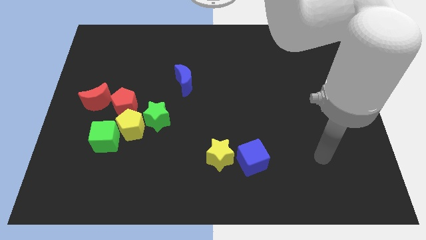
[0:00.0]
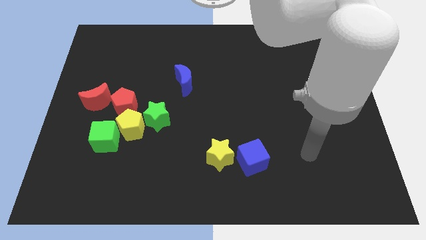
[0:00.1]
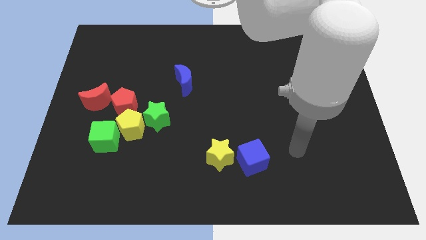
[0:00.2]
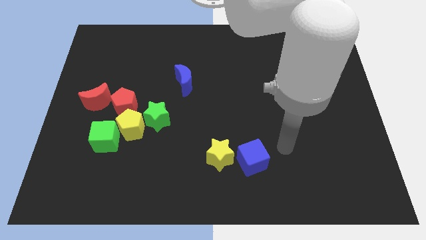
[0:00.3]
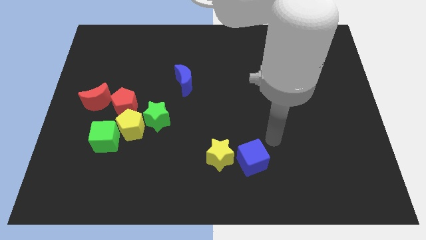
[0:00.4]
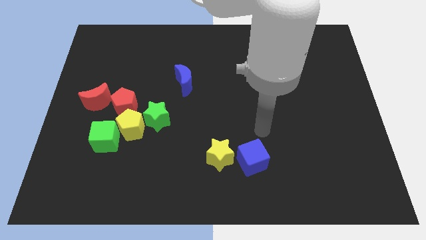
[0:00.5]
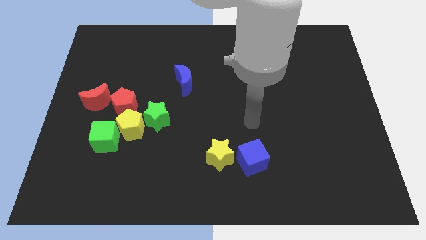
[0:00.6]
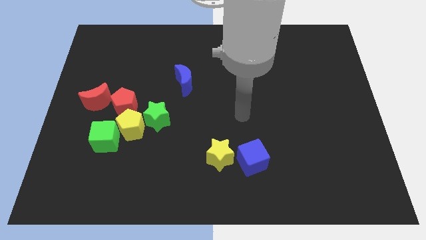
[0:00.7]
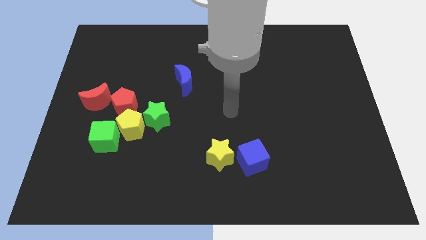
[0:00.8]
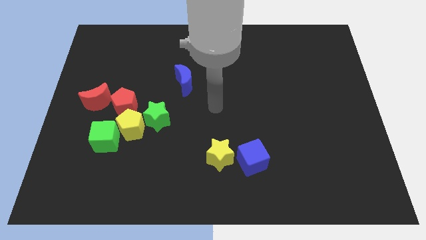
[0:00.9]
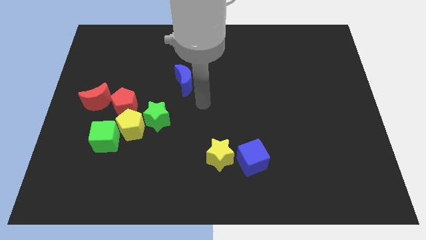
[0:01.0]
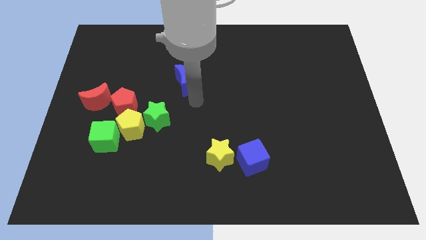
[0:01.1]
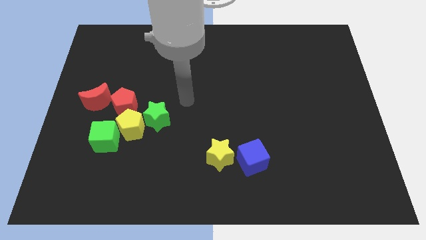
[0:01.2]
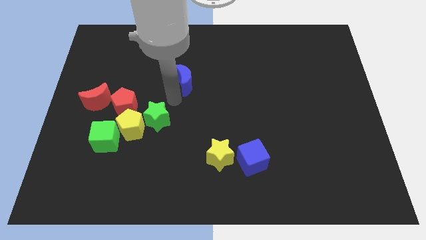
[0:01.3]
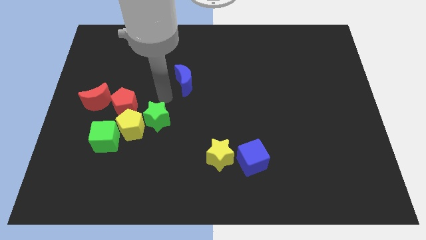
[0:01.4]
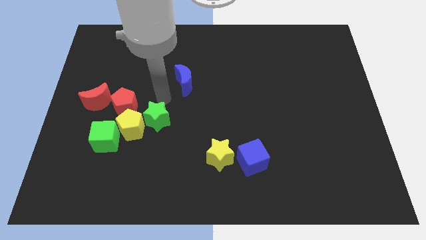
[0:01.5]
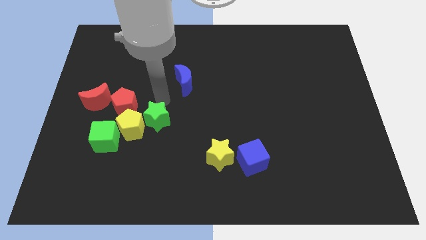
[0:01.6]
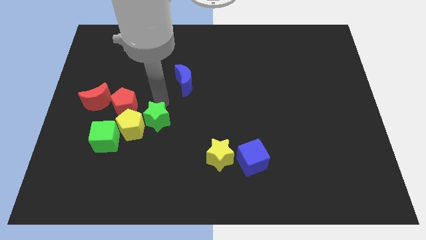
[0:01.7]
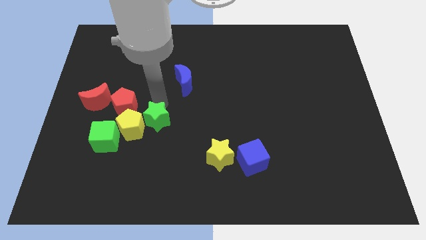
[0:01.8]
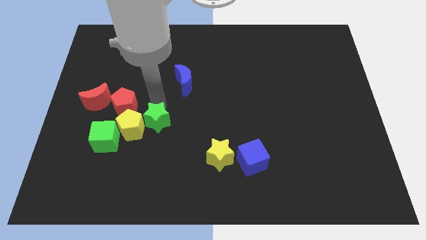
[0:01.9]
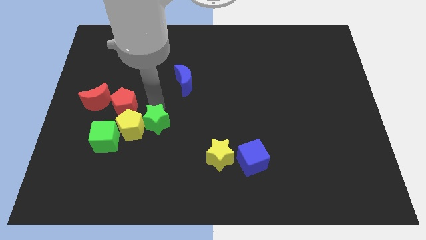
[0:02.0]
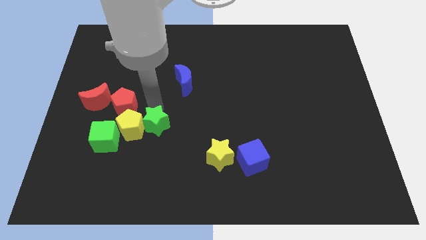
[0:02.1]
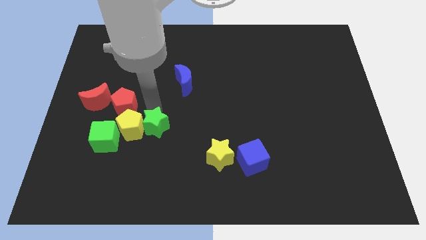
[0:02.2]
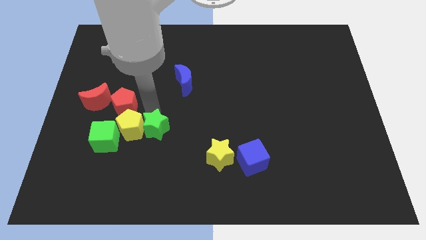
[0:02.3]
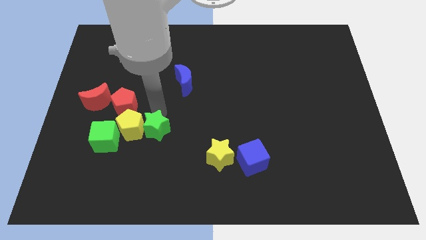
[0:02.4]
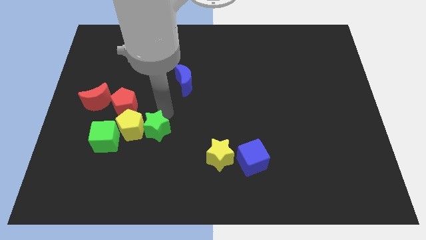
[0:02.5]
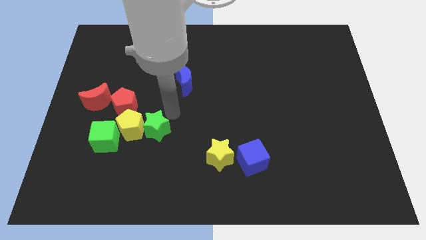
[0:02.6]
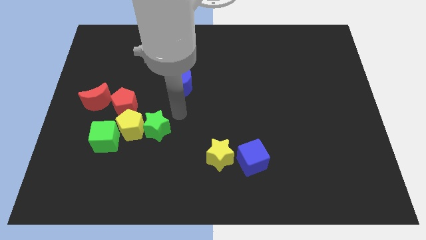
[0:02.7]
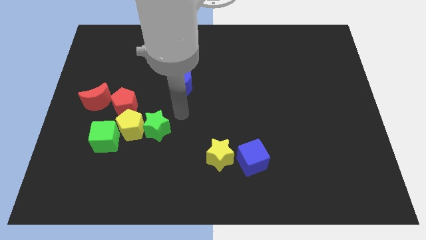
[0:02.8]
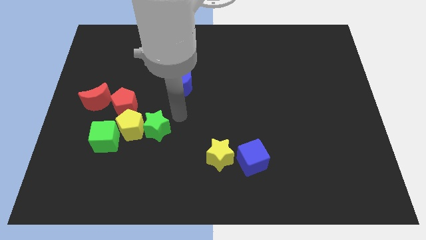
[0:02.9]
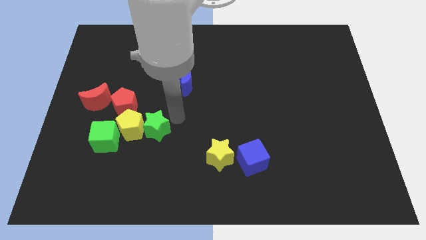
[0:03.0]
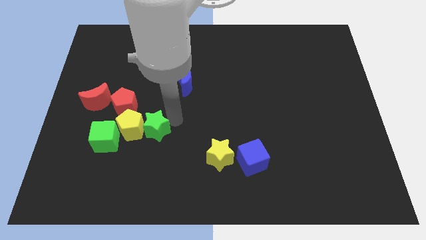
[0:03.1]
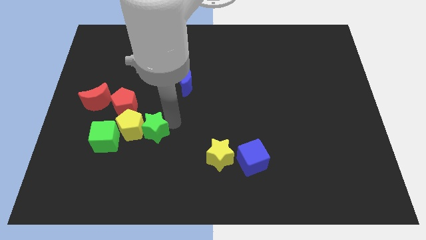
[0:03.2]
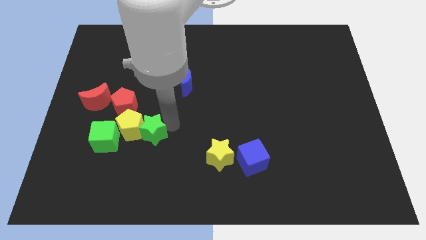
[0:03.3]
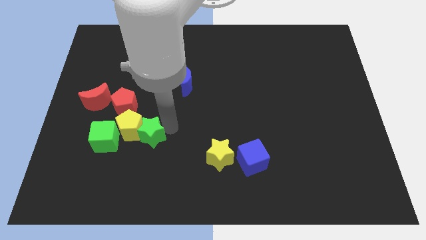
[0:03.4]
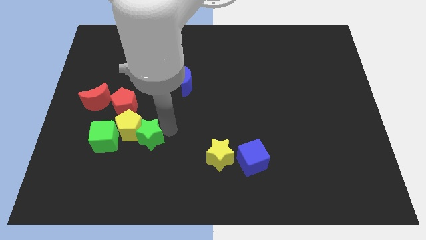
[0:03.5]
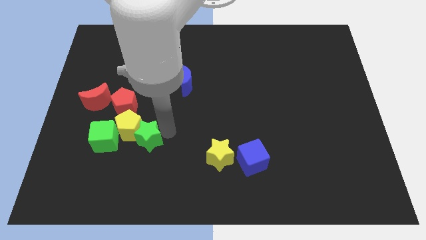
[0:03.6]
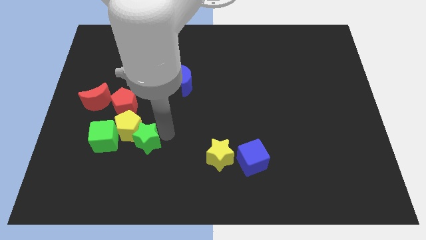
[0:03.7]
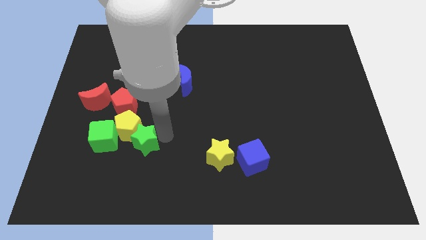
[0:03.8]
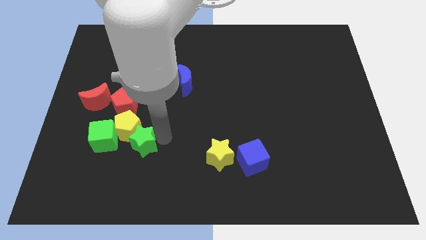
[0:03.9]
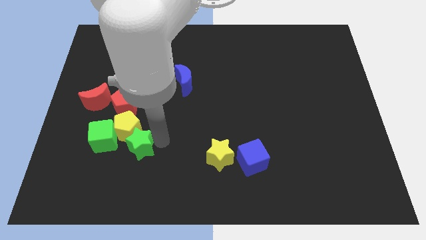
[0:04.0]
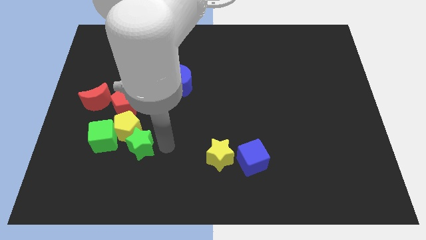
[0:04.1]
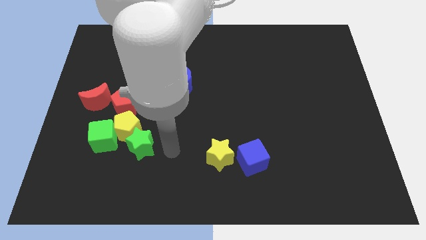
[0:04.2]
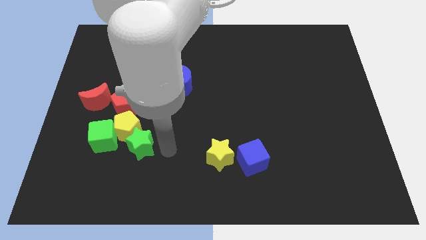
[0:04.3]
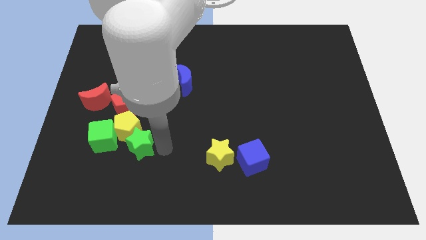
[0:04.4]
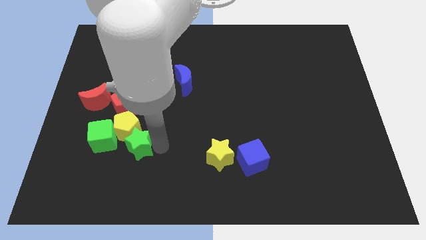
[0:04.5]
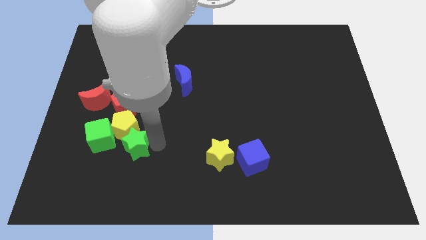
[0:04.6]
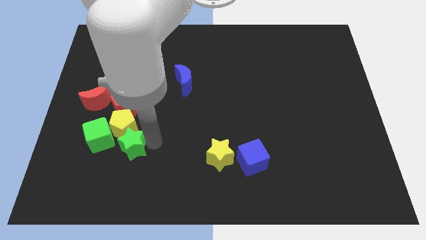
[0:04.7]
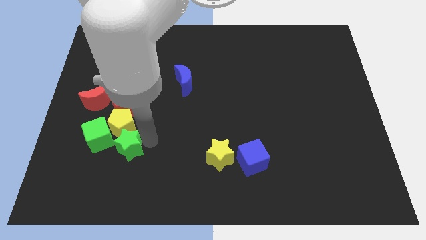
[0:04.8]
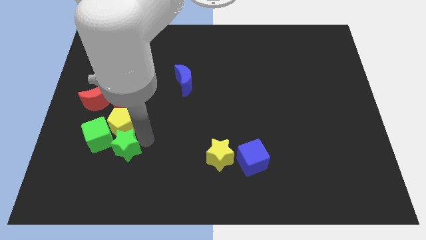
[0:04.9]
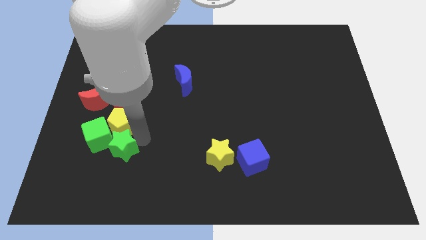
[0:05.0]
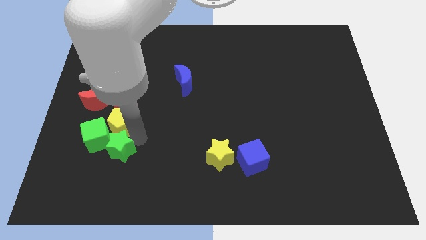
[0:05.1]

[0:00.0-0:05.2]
push the green star towards the green cube

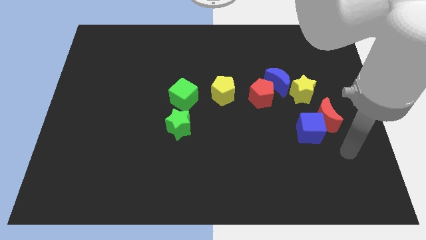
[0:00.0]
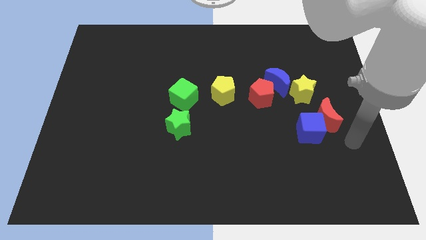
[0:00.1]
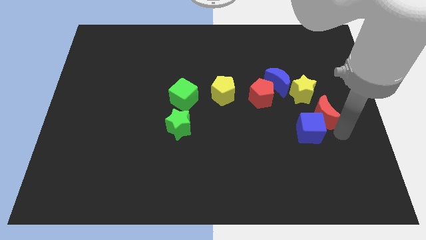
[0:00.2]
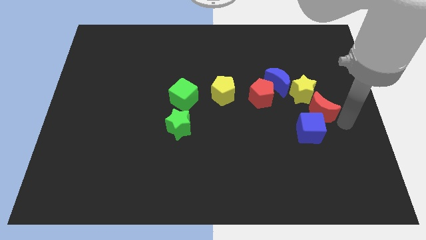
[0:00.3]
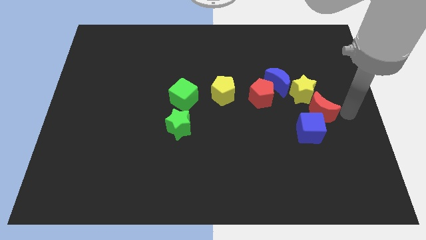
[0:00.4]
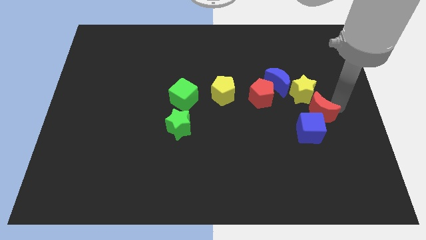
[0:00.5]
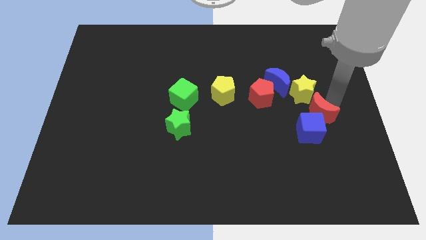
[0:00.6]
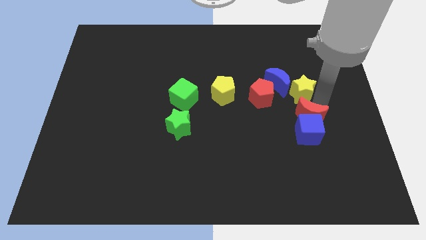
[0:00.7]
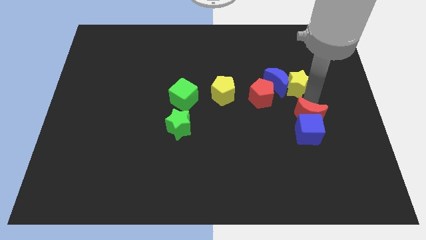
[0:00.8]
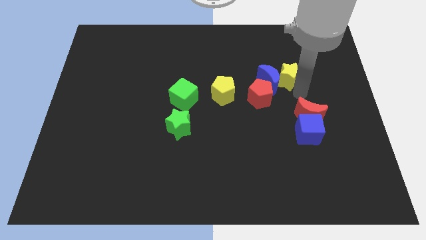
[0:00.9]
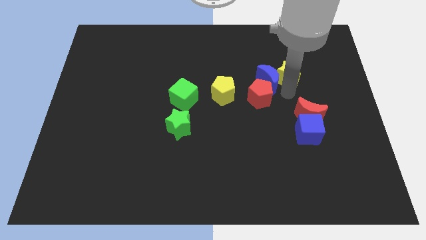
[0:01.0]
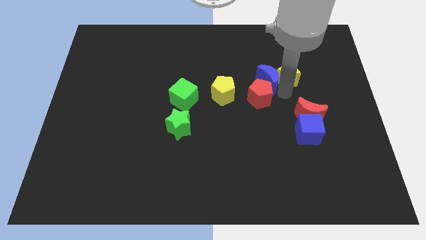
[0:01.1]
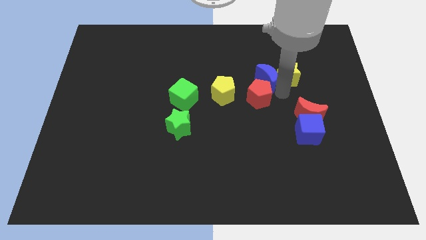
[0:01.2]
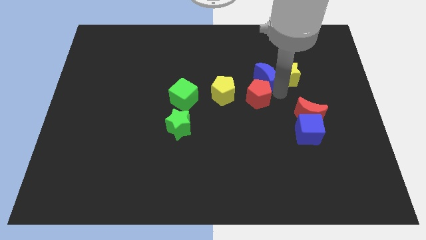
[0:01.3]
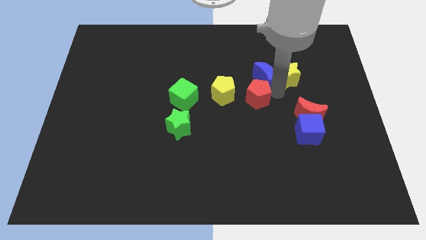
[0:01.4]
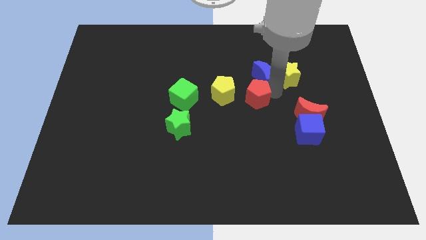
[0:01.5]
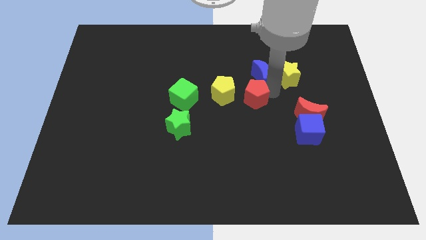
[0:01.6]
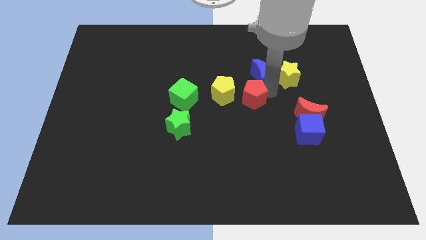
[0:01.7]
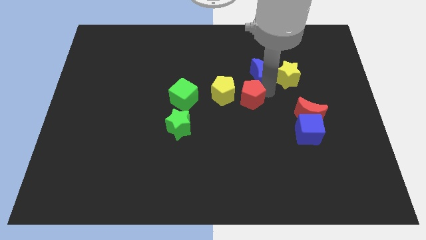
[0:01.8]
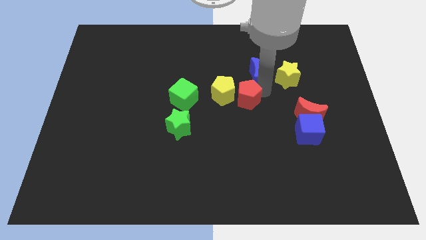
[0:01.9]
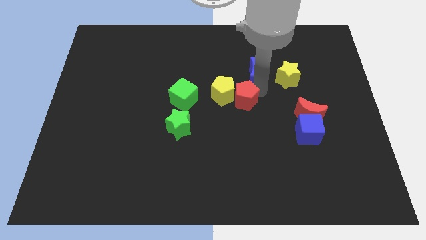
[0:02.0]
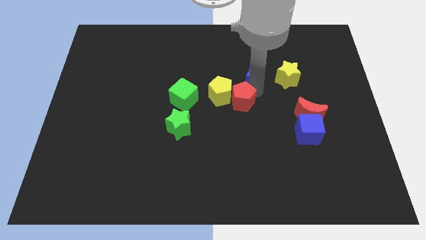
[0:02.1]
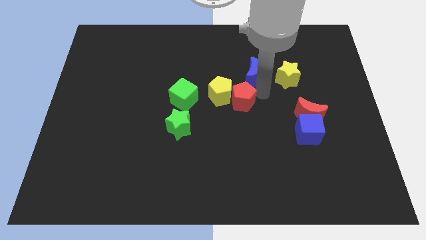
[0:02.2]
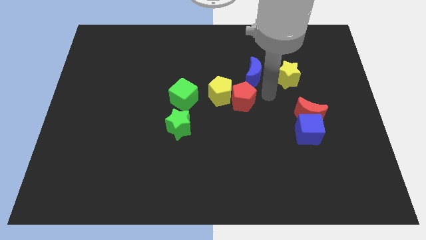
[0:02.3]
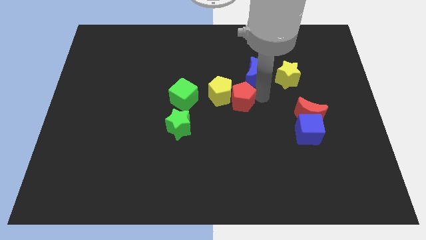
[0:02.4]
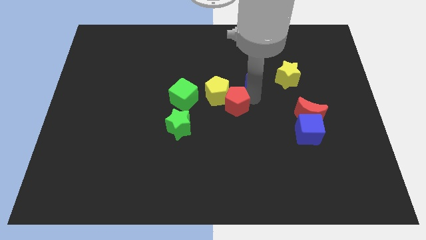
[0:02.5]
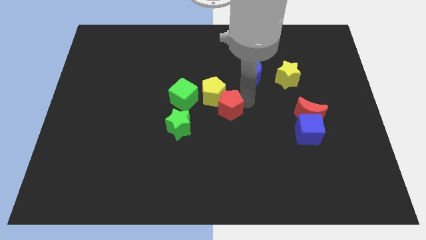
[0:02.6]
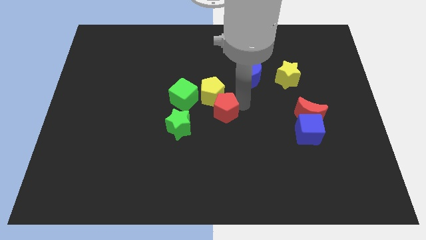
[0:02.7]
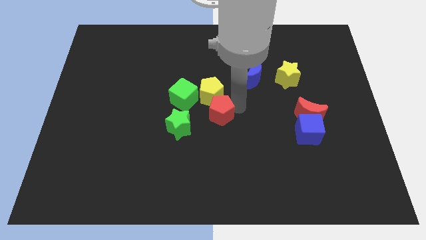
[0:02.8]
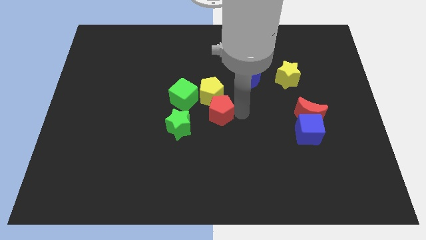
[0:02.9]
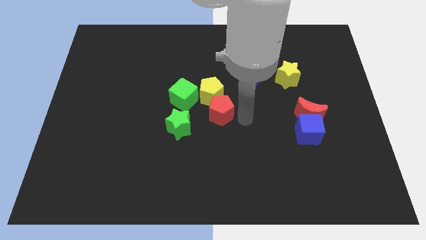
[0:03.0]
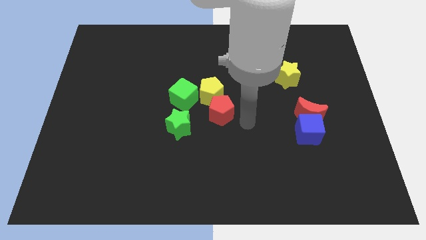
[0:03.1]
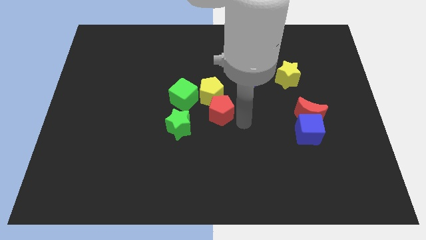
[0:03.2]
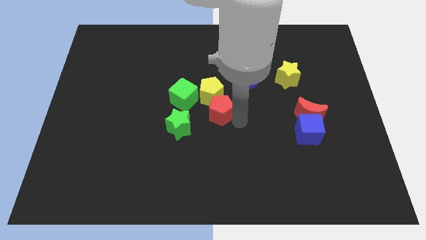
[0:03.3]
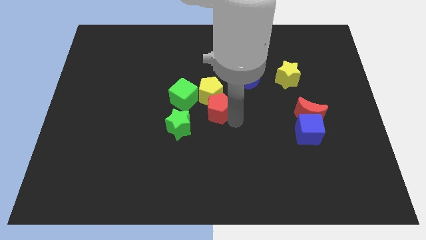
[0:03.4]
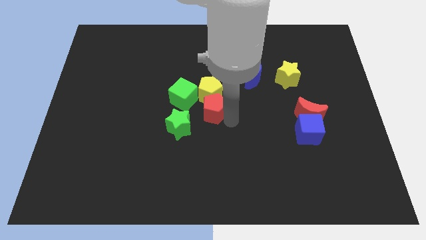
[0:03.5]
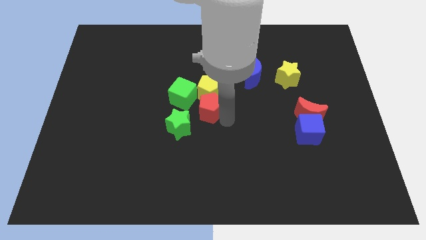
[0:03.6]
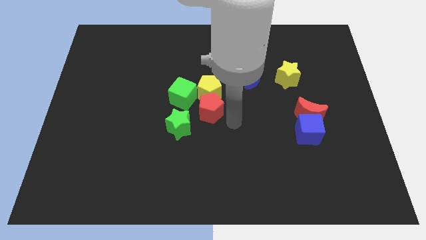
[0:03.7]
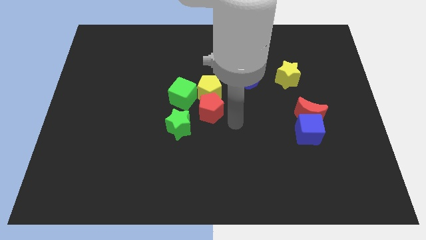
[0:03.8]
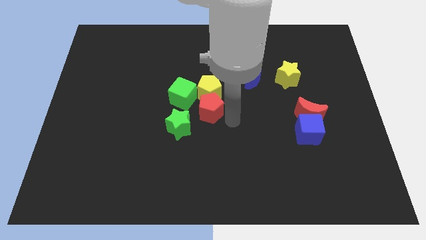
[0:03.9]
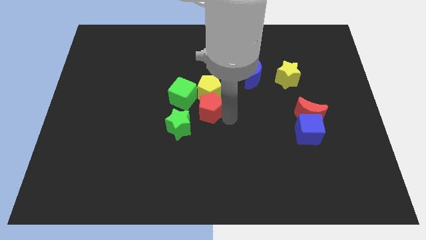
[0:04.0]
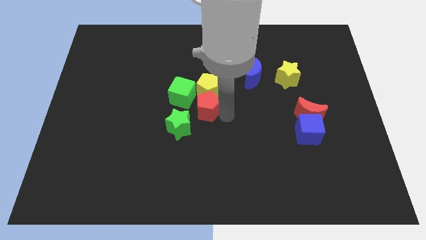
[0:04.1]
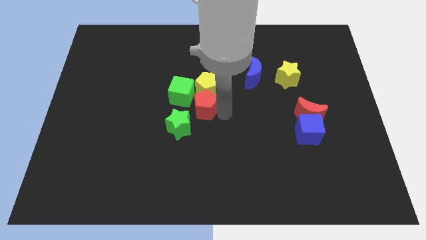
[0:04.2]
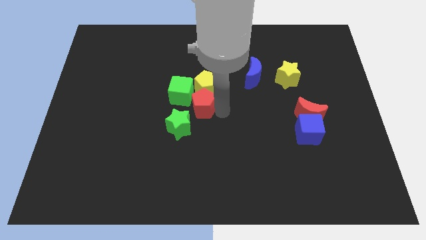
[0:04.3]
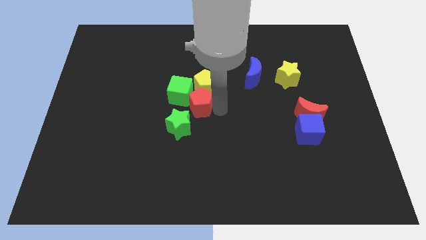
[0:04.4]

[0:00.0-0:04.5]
push the red pentagon close to the green cube
